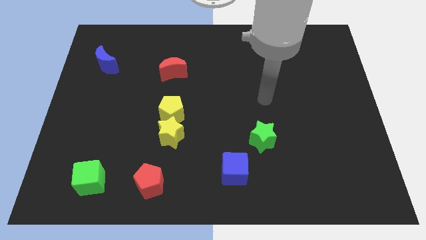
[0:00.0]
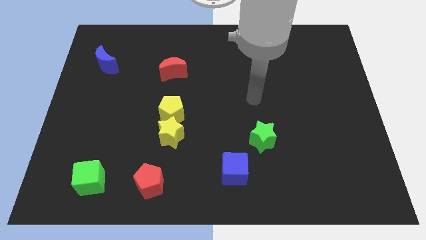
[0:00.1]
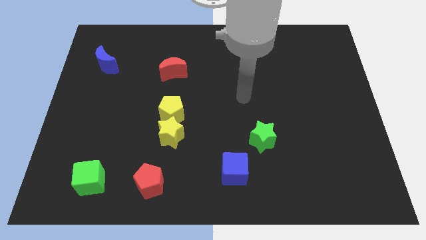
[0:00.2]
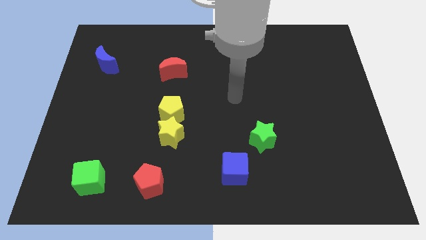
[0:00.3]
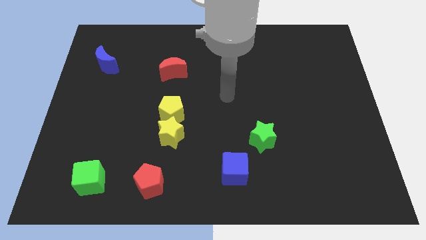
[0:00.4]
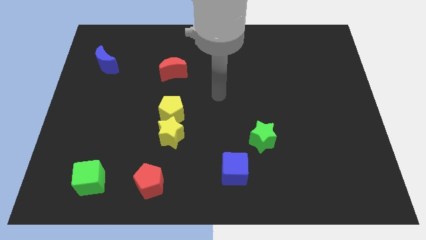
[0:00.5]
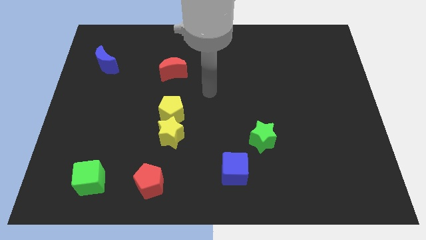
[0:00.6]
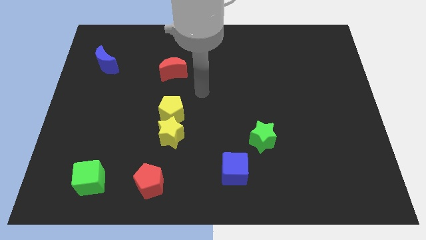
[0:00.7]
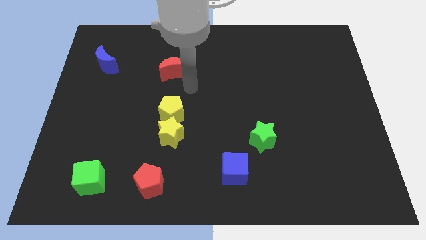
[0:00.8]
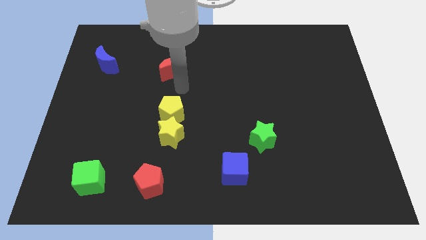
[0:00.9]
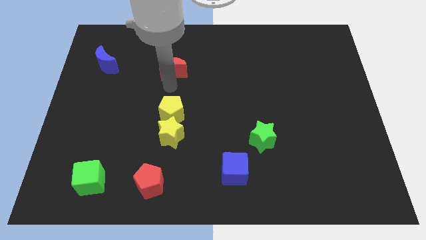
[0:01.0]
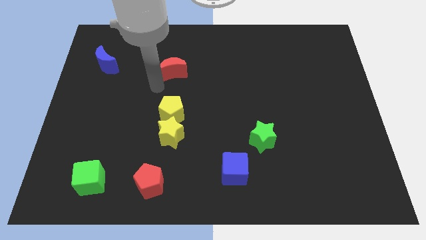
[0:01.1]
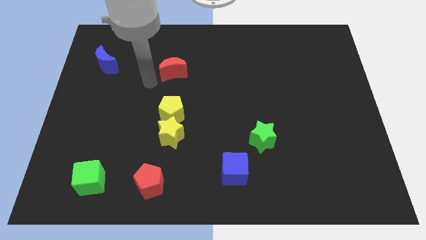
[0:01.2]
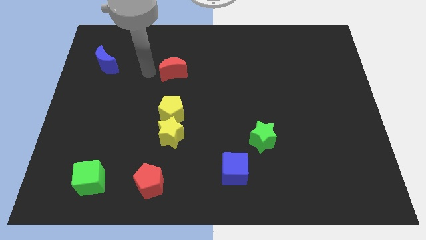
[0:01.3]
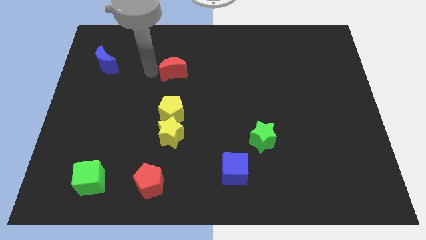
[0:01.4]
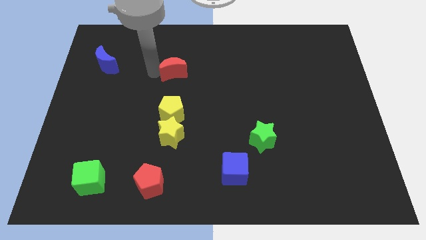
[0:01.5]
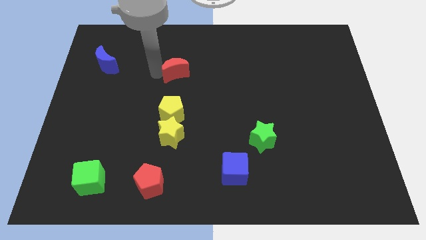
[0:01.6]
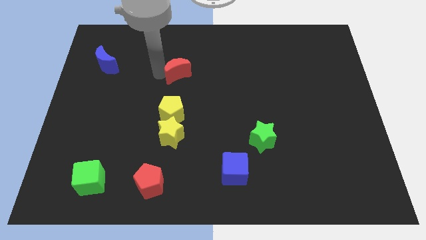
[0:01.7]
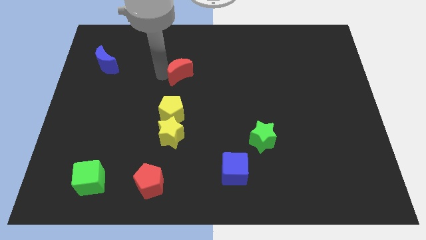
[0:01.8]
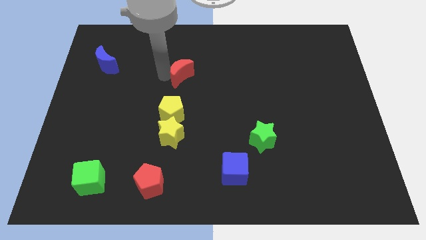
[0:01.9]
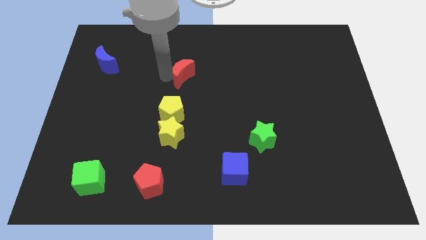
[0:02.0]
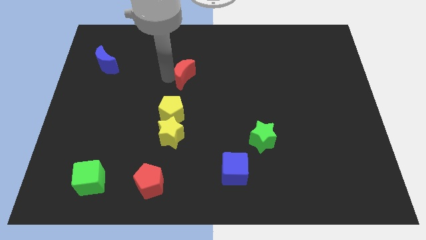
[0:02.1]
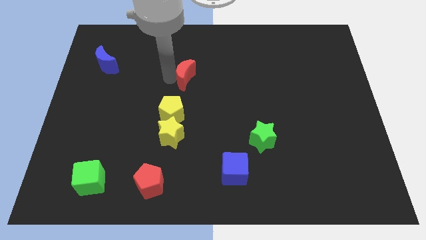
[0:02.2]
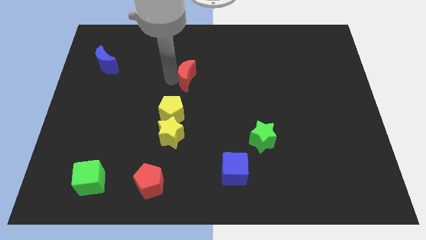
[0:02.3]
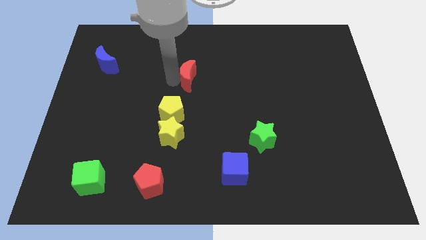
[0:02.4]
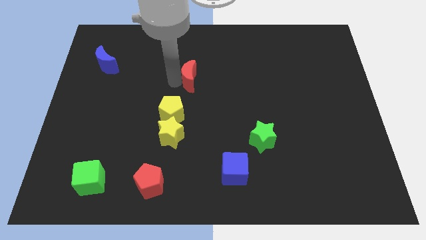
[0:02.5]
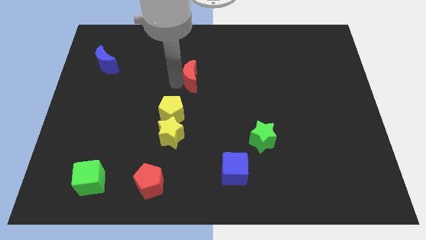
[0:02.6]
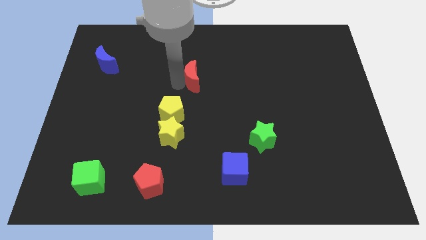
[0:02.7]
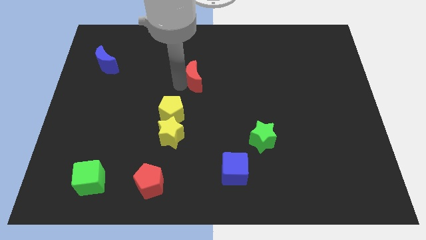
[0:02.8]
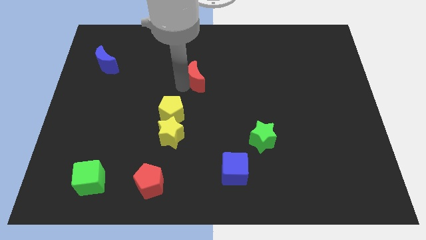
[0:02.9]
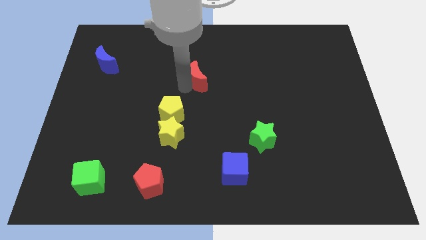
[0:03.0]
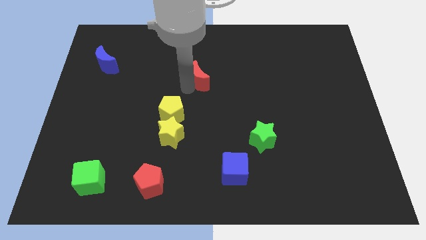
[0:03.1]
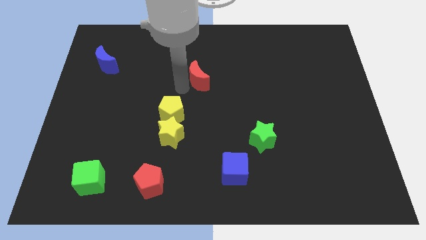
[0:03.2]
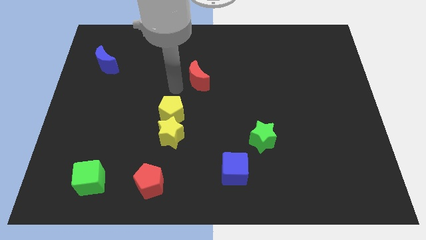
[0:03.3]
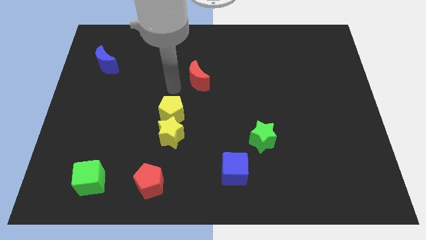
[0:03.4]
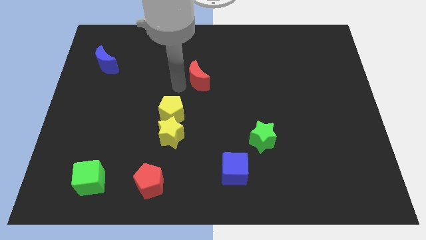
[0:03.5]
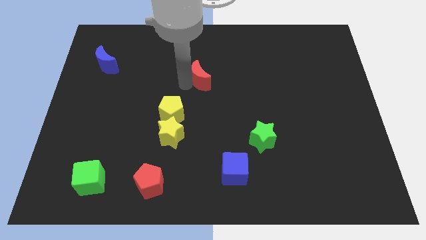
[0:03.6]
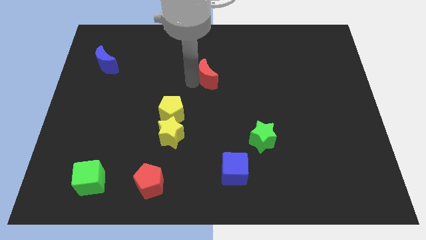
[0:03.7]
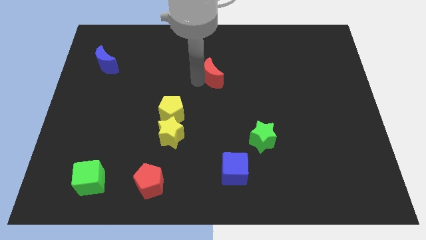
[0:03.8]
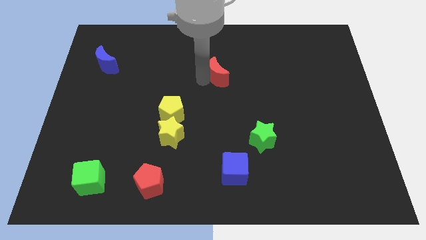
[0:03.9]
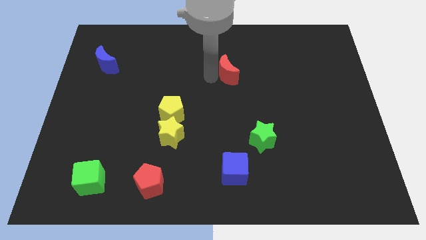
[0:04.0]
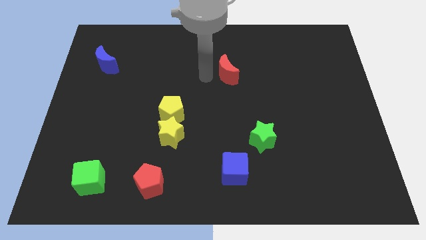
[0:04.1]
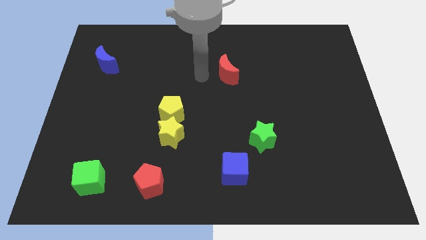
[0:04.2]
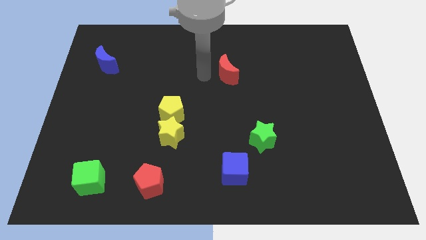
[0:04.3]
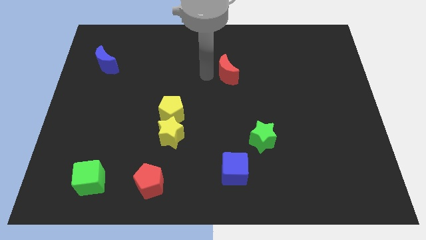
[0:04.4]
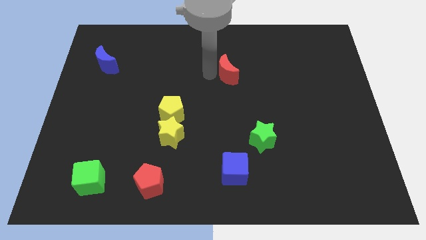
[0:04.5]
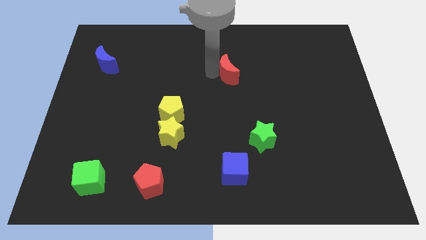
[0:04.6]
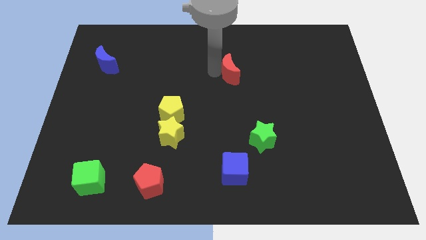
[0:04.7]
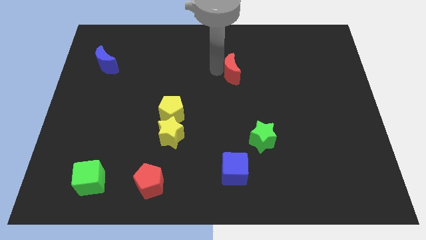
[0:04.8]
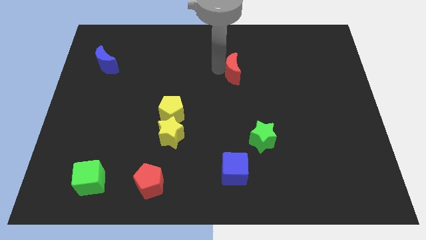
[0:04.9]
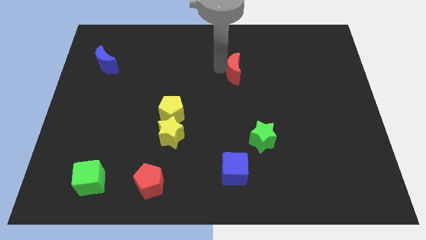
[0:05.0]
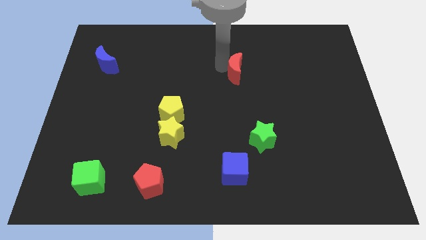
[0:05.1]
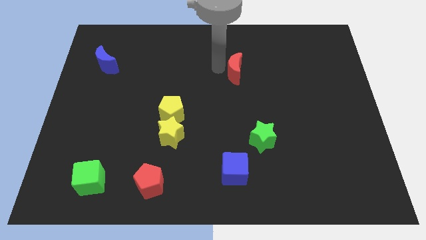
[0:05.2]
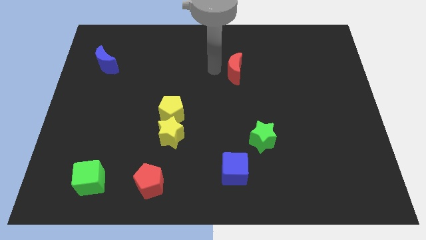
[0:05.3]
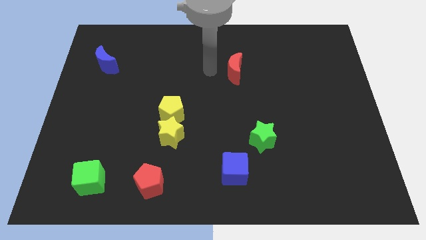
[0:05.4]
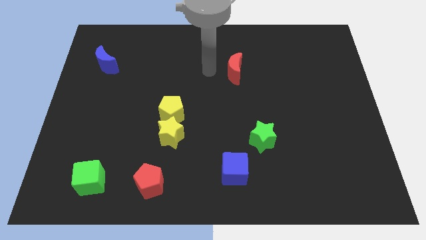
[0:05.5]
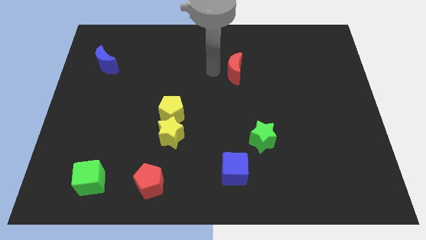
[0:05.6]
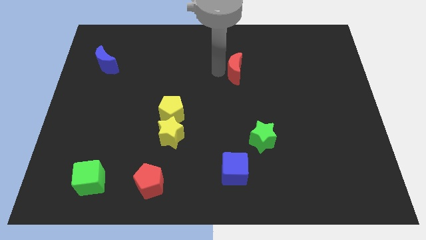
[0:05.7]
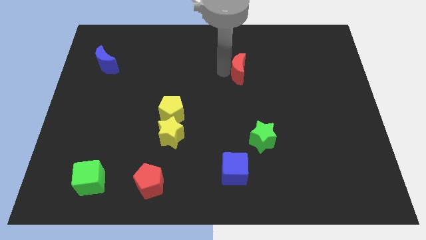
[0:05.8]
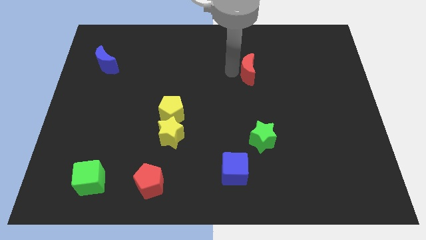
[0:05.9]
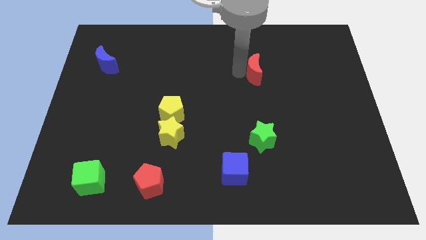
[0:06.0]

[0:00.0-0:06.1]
slide the red moon right

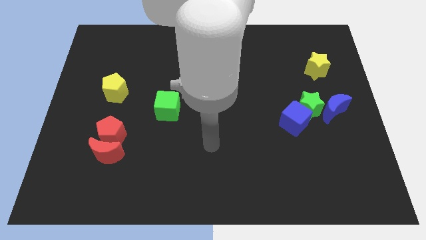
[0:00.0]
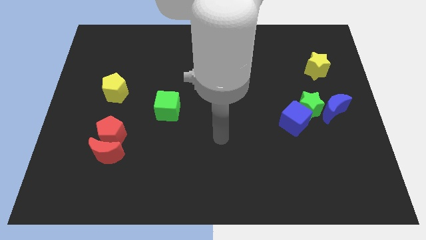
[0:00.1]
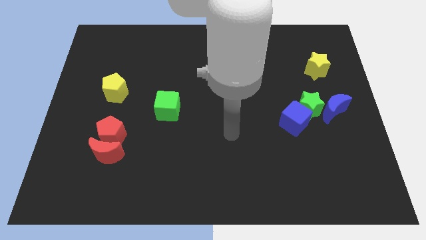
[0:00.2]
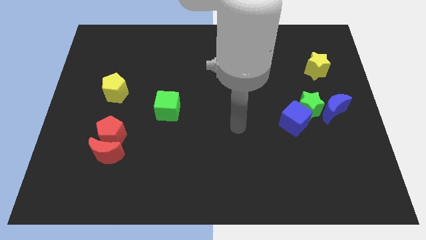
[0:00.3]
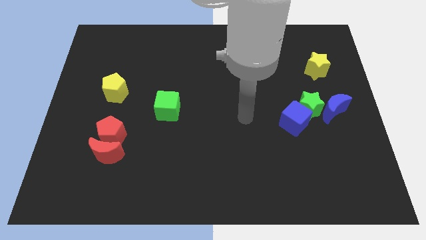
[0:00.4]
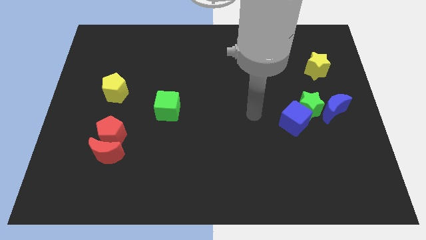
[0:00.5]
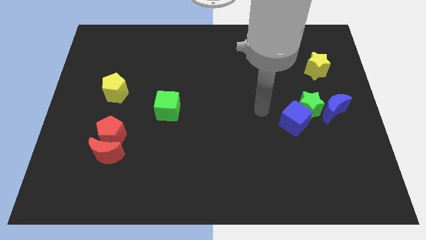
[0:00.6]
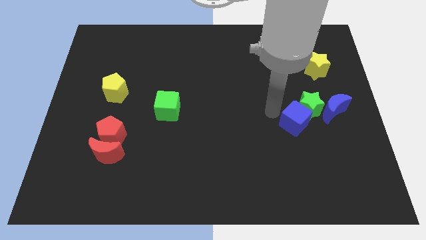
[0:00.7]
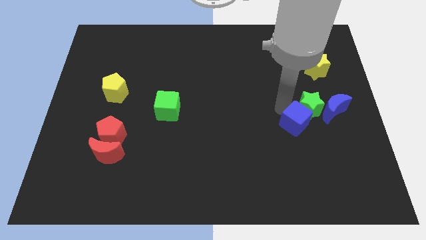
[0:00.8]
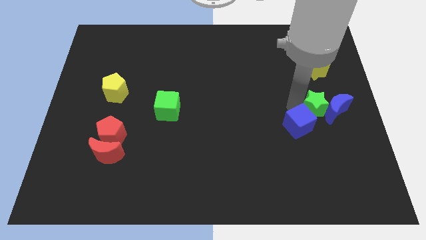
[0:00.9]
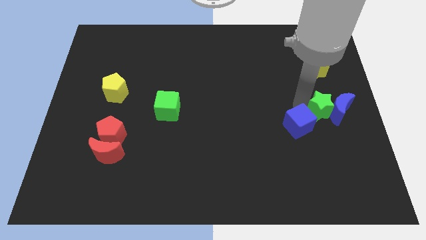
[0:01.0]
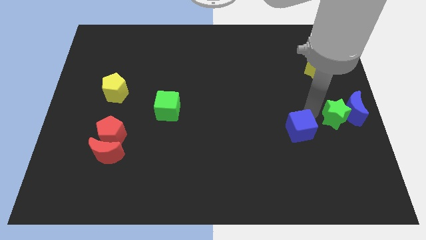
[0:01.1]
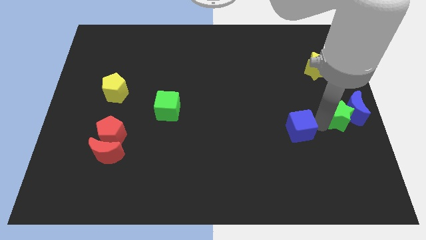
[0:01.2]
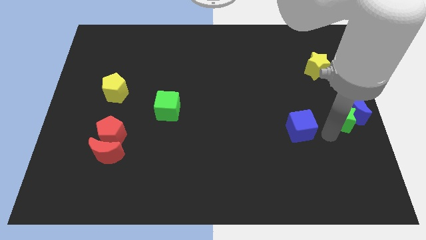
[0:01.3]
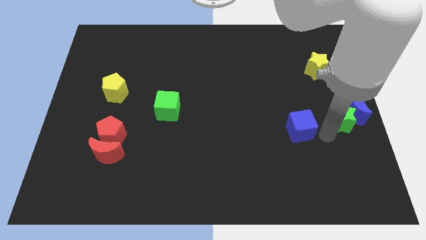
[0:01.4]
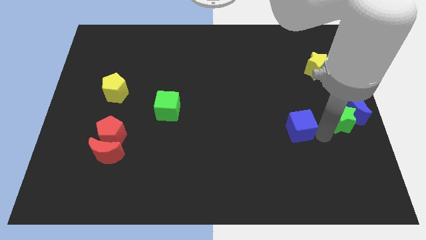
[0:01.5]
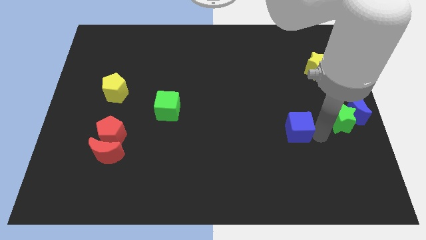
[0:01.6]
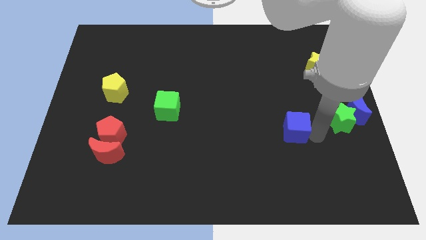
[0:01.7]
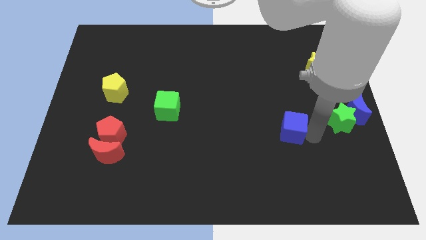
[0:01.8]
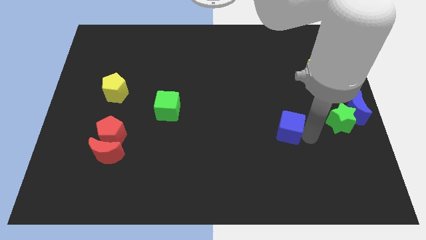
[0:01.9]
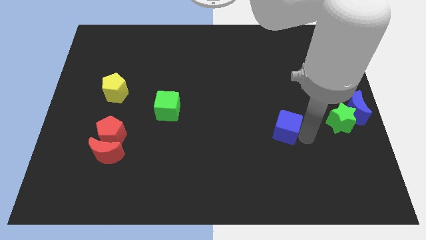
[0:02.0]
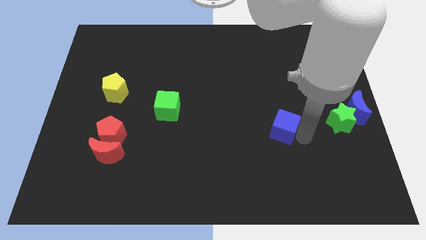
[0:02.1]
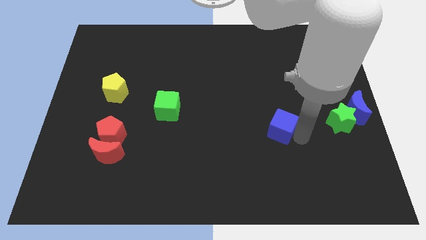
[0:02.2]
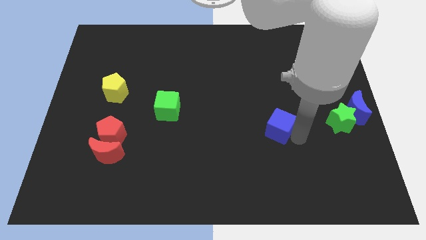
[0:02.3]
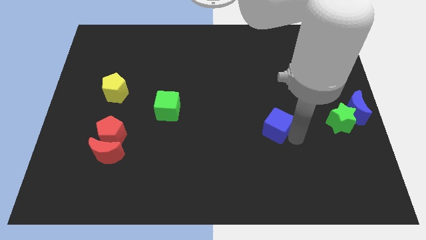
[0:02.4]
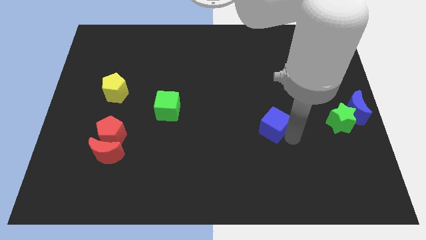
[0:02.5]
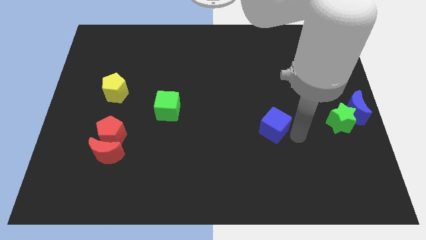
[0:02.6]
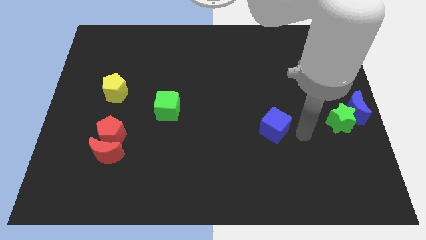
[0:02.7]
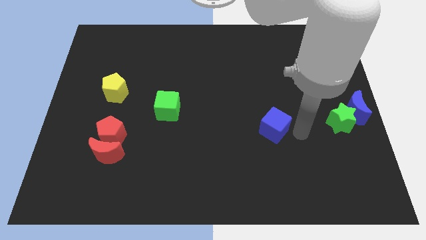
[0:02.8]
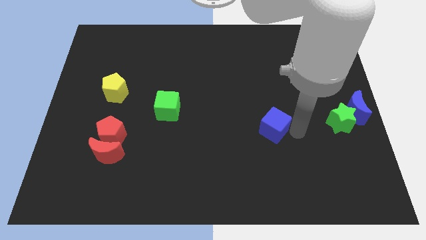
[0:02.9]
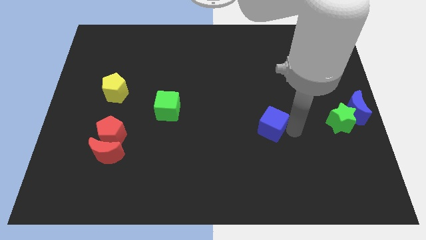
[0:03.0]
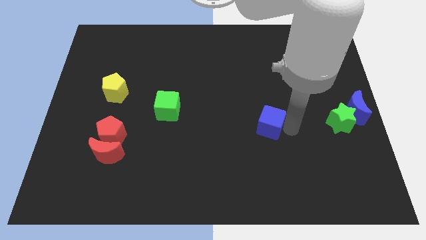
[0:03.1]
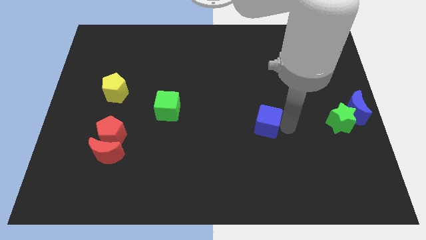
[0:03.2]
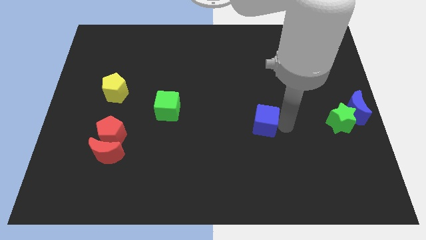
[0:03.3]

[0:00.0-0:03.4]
move the blue cube a bit to the left
